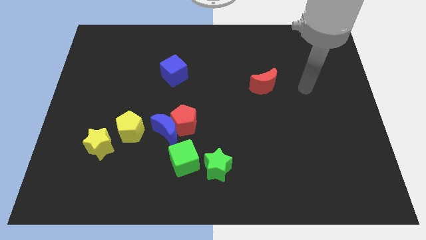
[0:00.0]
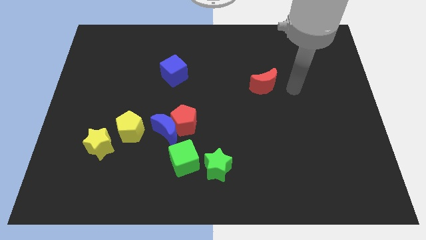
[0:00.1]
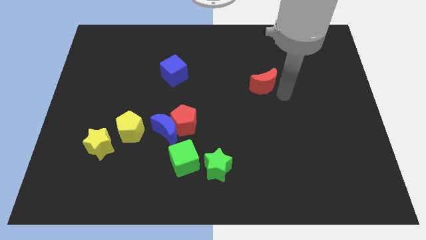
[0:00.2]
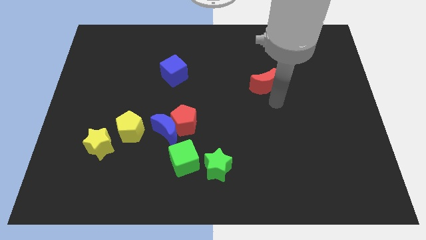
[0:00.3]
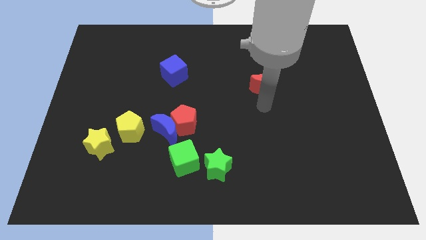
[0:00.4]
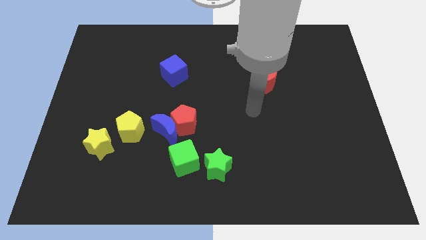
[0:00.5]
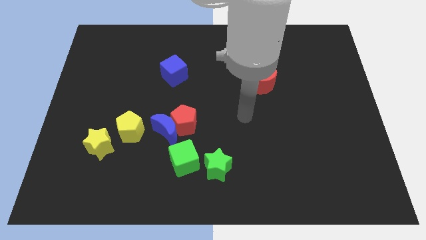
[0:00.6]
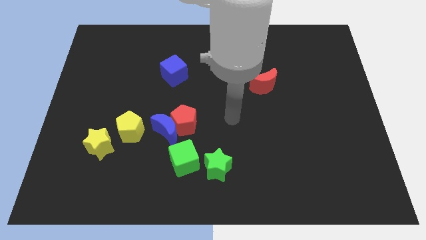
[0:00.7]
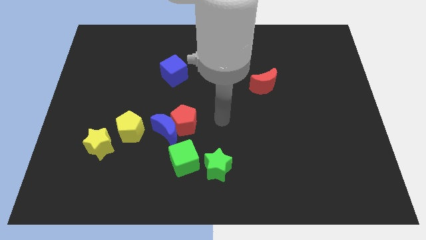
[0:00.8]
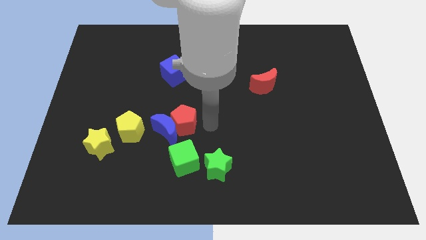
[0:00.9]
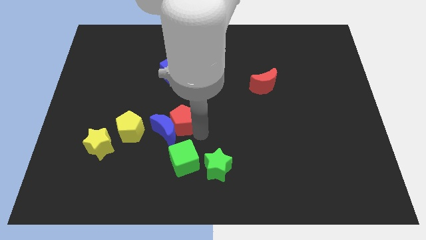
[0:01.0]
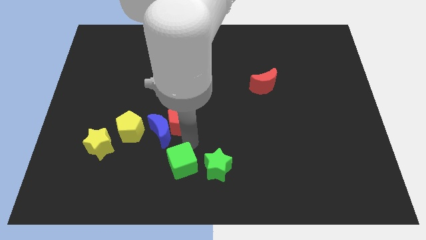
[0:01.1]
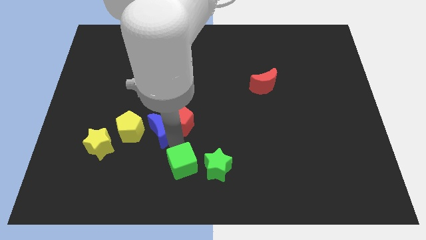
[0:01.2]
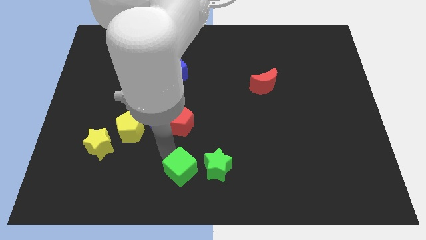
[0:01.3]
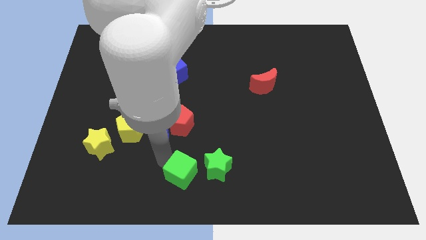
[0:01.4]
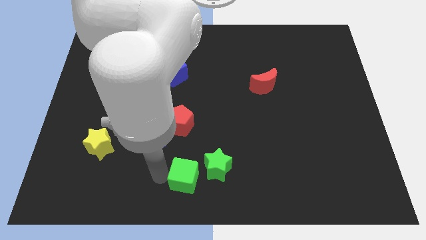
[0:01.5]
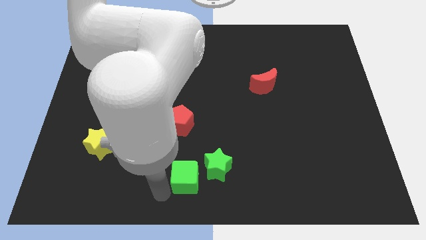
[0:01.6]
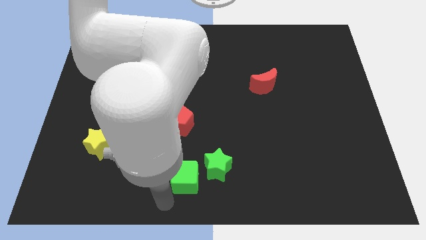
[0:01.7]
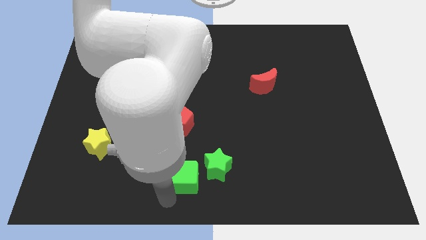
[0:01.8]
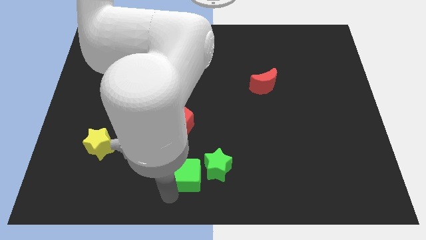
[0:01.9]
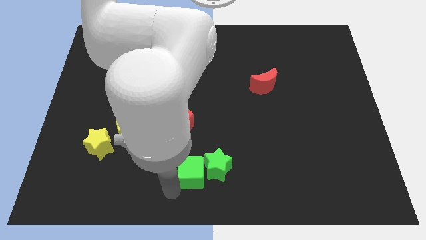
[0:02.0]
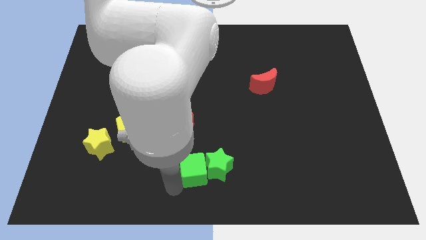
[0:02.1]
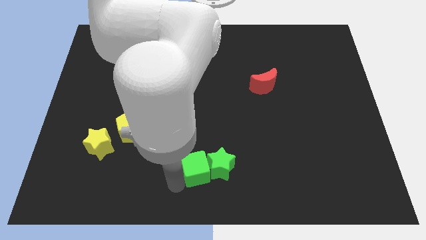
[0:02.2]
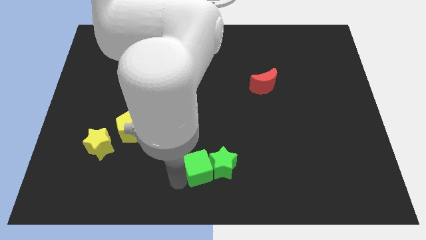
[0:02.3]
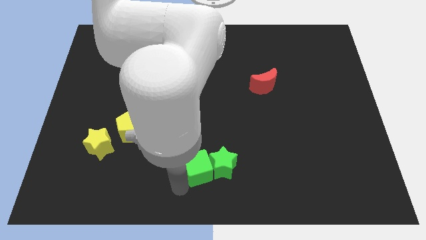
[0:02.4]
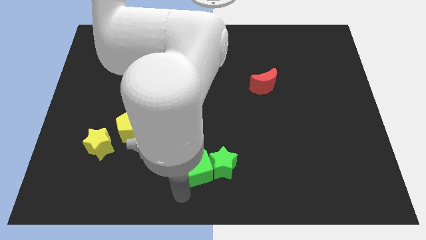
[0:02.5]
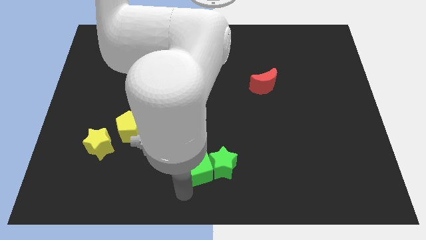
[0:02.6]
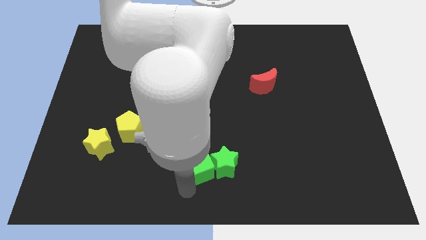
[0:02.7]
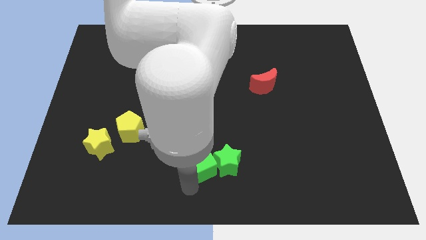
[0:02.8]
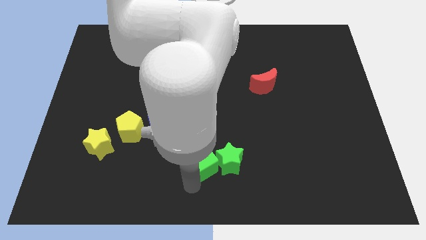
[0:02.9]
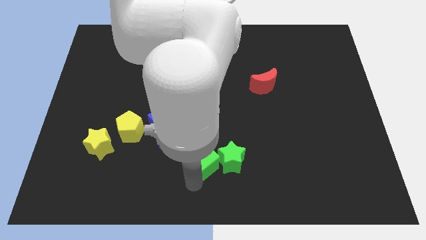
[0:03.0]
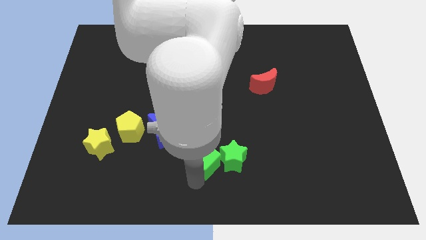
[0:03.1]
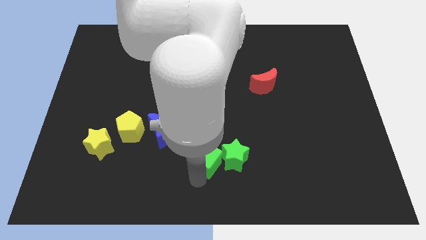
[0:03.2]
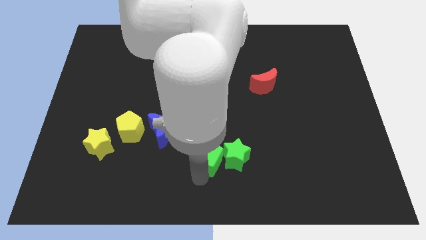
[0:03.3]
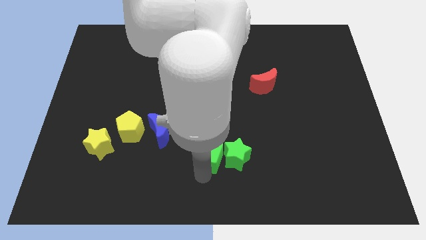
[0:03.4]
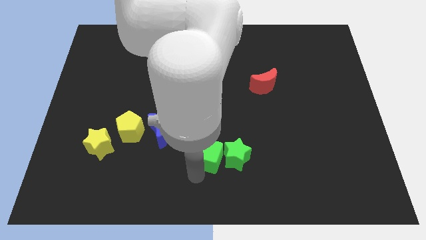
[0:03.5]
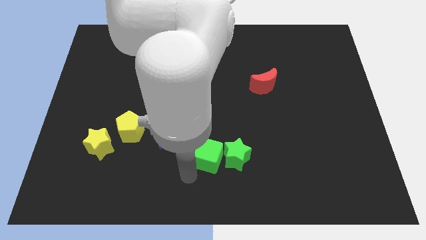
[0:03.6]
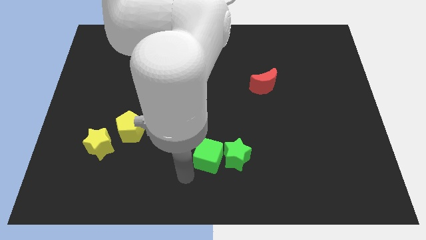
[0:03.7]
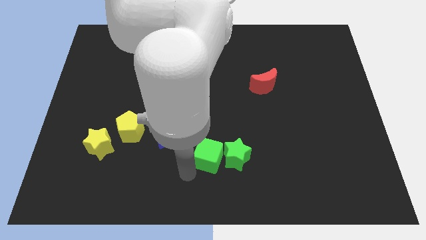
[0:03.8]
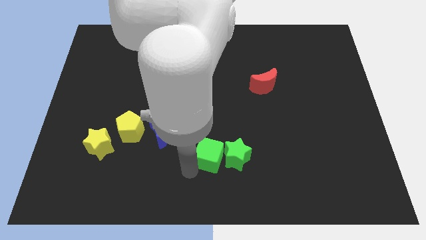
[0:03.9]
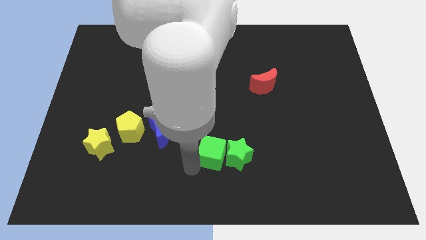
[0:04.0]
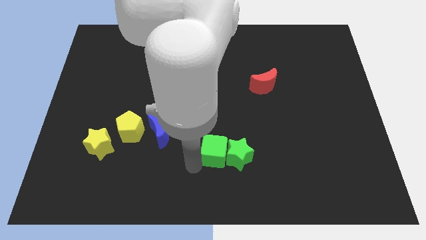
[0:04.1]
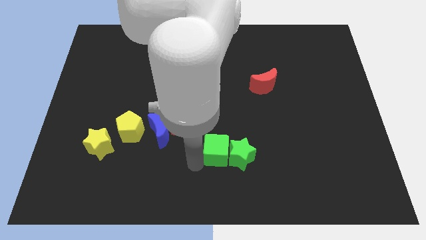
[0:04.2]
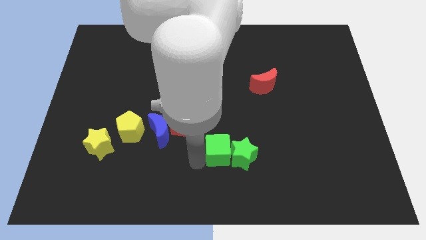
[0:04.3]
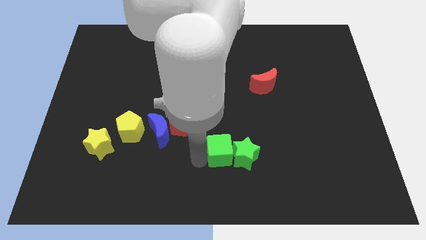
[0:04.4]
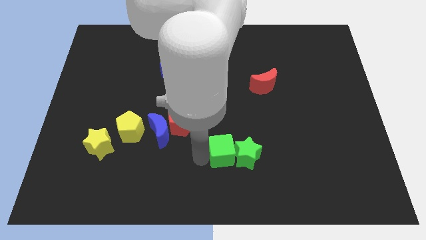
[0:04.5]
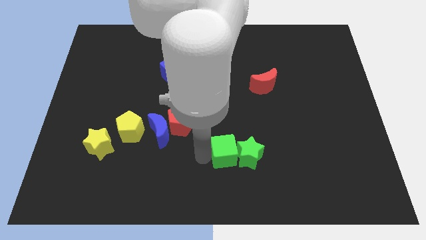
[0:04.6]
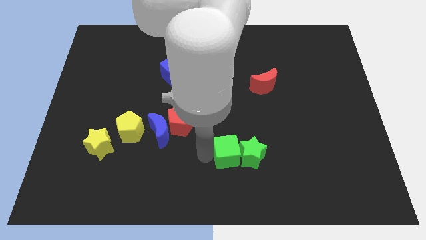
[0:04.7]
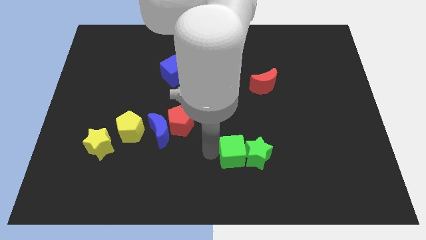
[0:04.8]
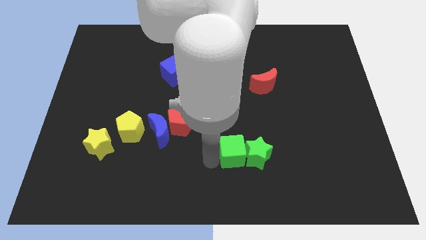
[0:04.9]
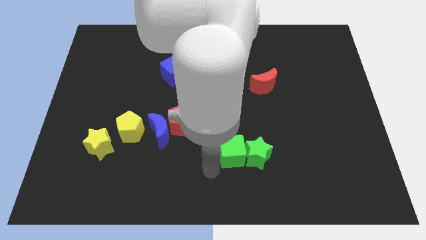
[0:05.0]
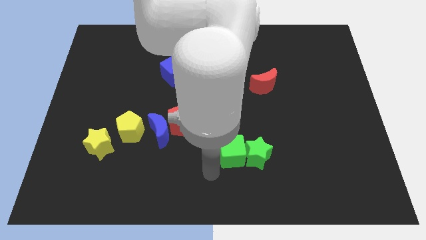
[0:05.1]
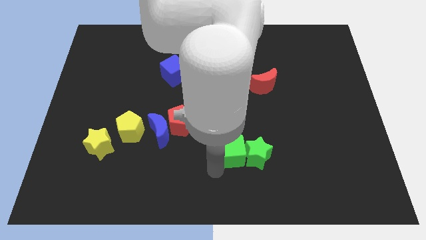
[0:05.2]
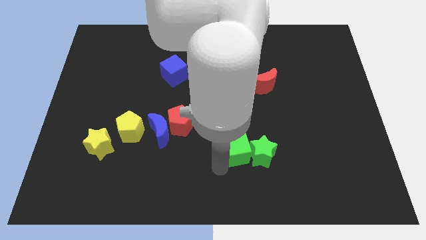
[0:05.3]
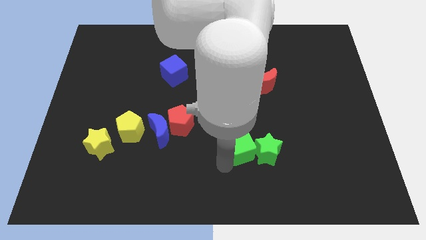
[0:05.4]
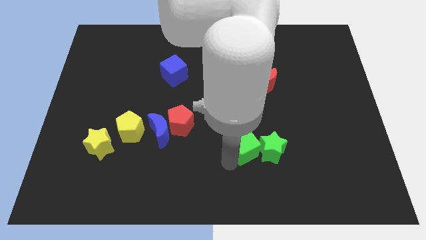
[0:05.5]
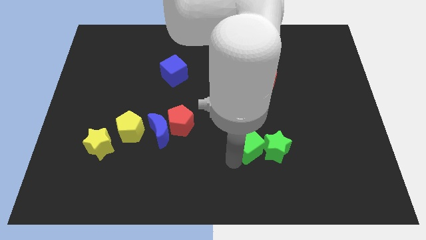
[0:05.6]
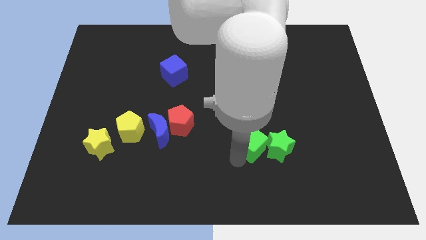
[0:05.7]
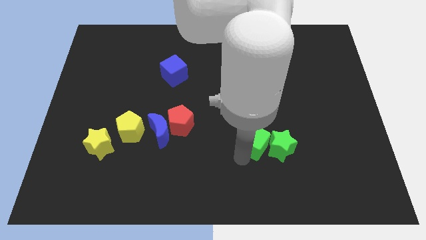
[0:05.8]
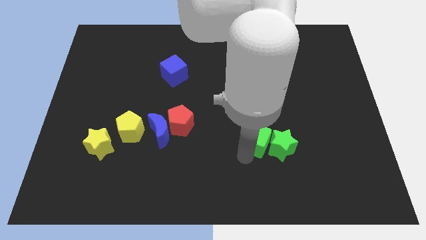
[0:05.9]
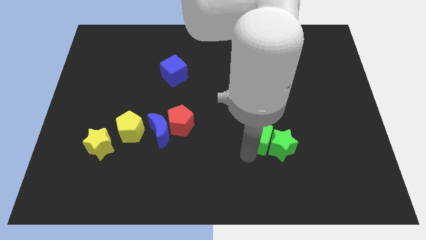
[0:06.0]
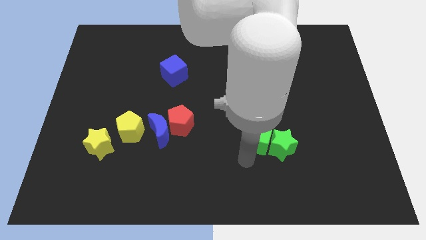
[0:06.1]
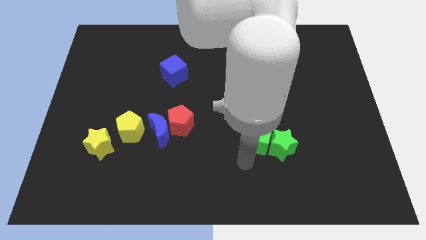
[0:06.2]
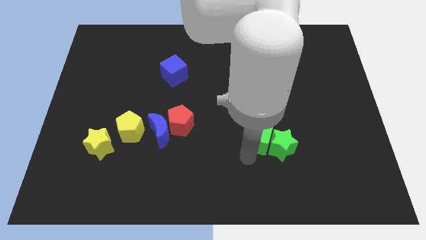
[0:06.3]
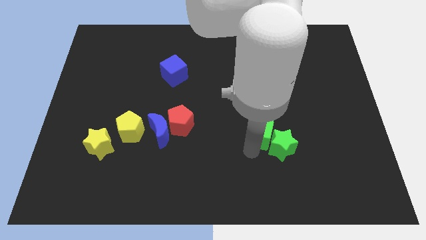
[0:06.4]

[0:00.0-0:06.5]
push the green cube below the red moon

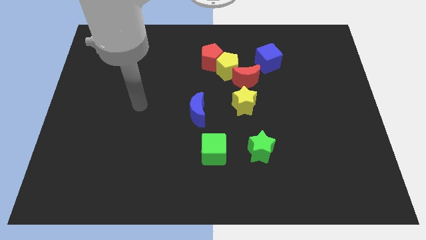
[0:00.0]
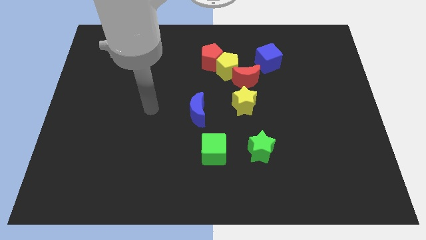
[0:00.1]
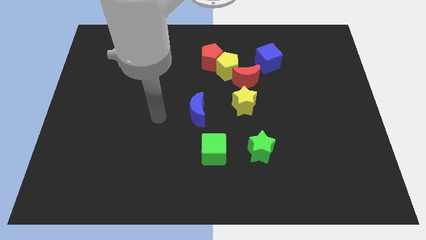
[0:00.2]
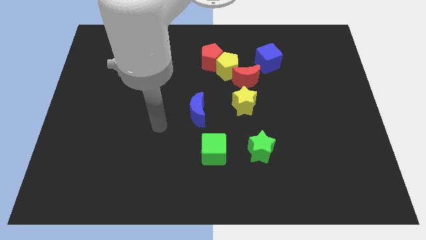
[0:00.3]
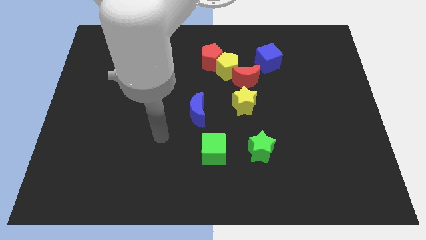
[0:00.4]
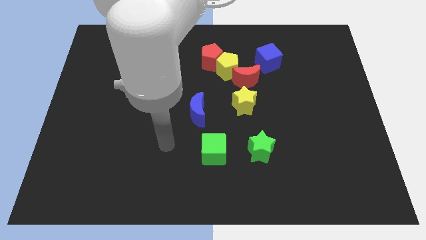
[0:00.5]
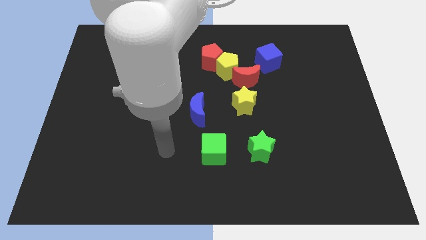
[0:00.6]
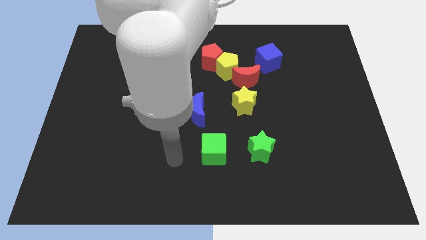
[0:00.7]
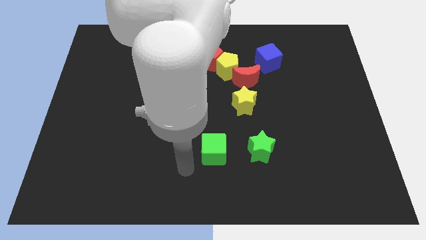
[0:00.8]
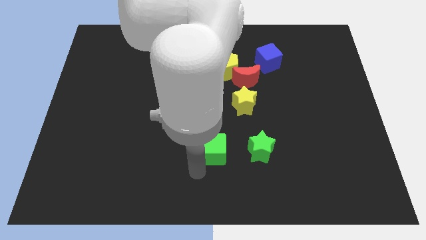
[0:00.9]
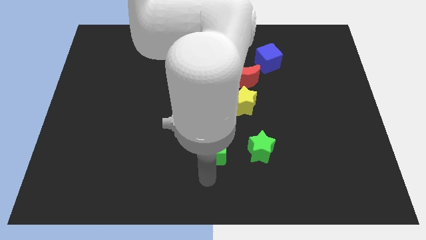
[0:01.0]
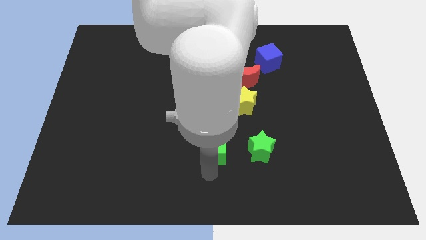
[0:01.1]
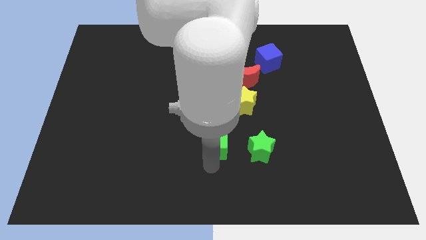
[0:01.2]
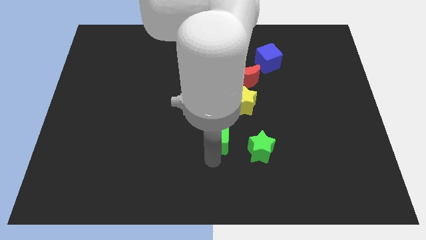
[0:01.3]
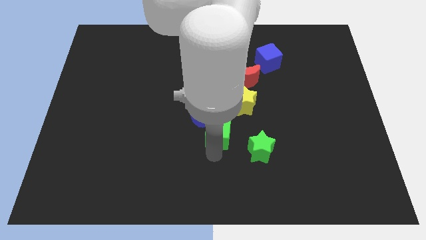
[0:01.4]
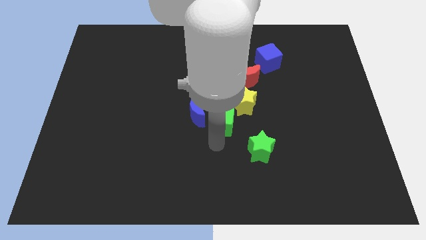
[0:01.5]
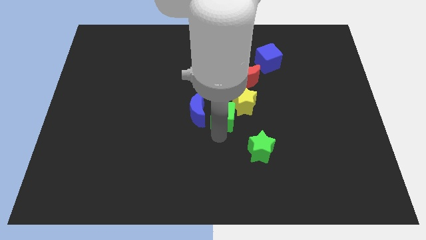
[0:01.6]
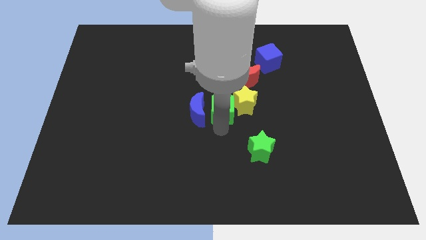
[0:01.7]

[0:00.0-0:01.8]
push the green cube to the bottom left of the red moon
